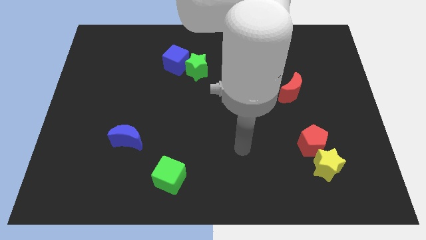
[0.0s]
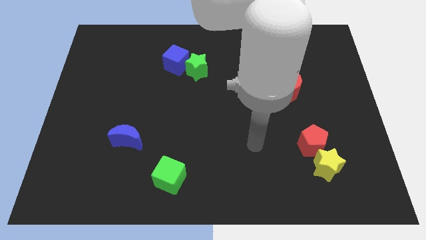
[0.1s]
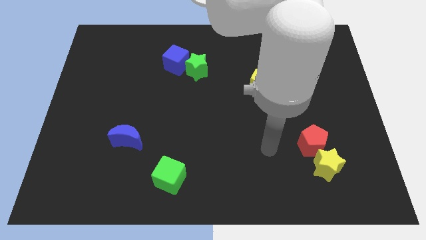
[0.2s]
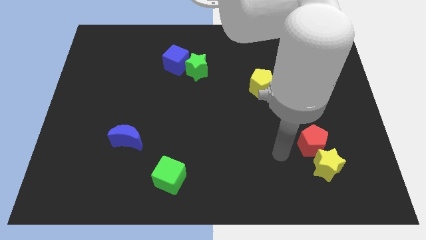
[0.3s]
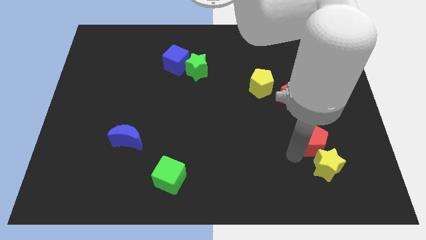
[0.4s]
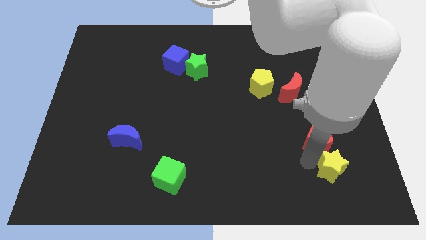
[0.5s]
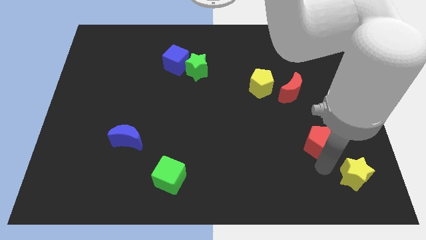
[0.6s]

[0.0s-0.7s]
separate the red pentagon from the yellow star

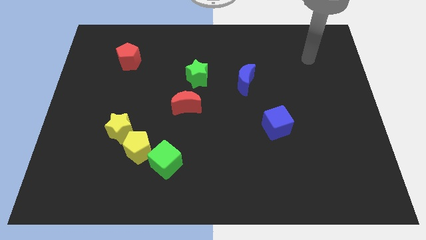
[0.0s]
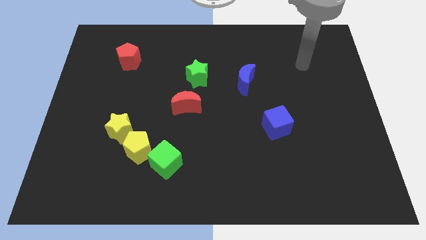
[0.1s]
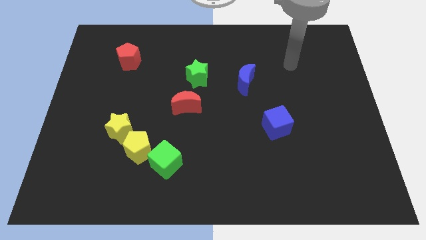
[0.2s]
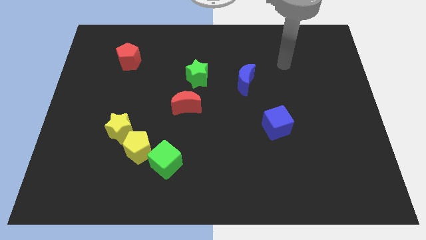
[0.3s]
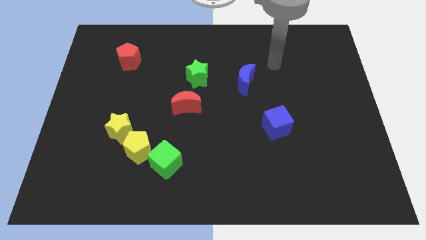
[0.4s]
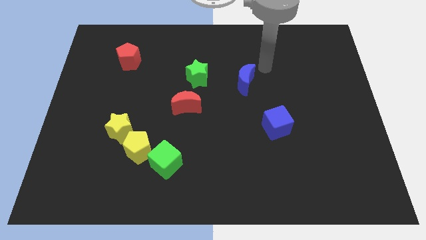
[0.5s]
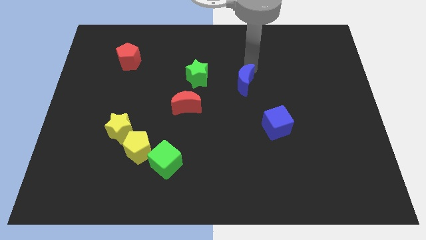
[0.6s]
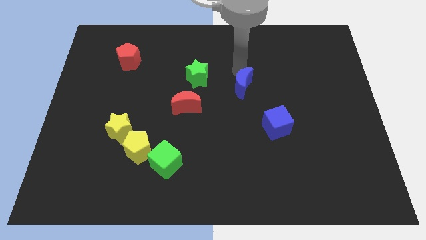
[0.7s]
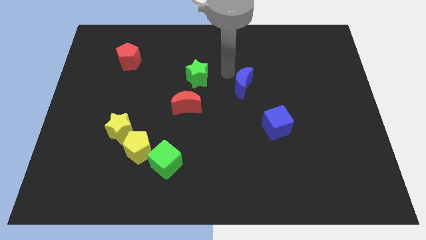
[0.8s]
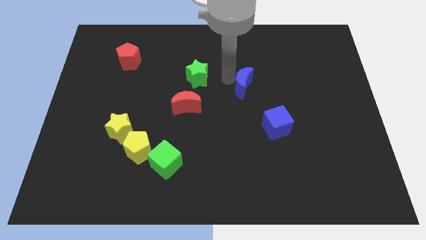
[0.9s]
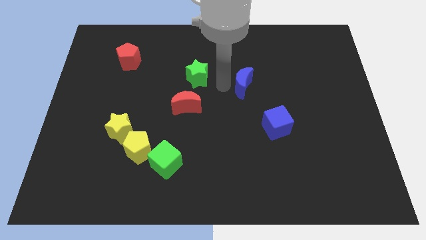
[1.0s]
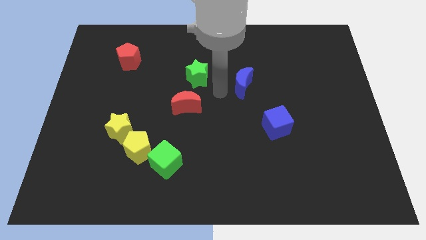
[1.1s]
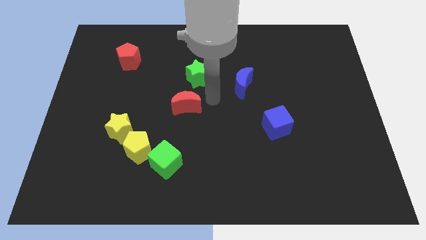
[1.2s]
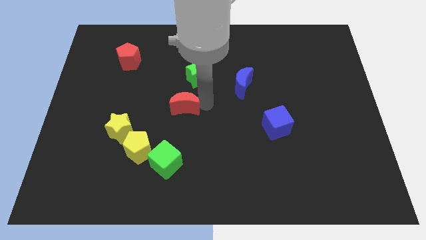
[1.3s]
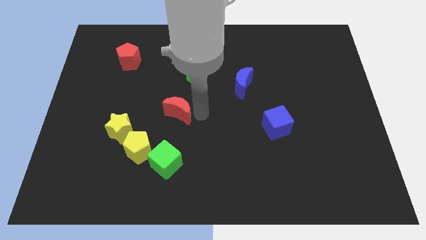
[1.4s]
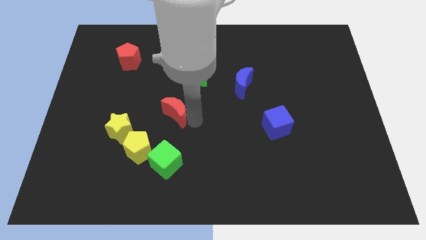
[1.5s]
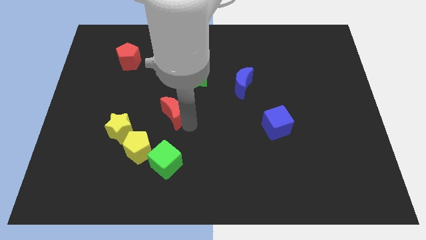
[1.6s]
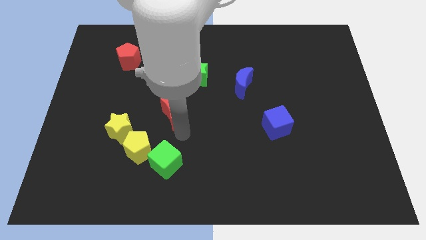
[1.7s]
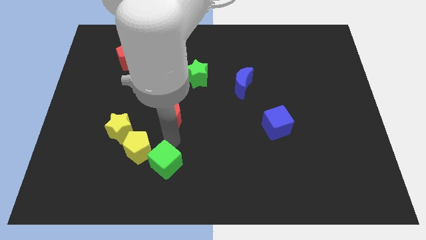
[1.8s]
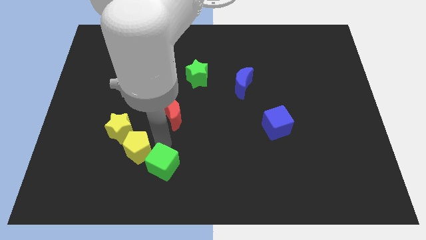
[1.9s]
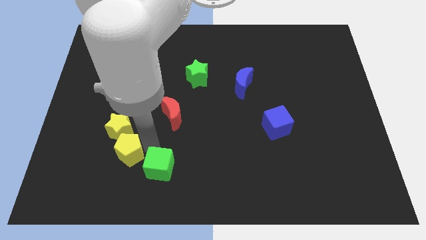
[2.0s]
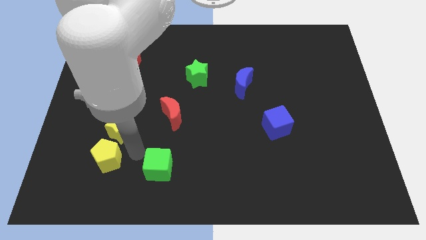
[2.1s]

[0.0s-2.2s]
separate the green cube from the yellow pentagon

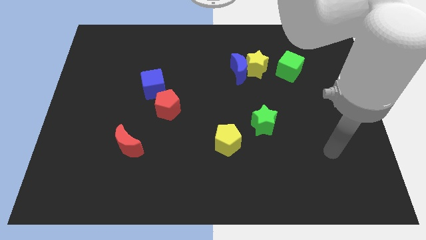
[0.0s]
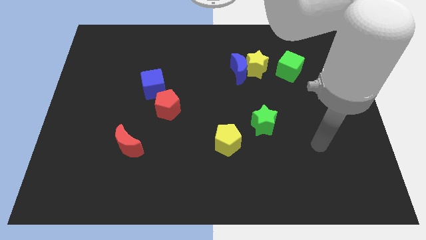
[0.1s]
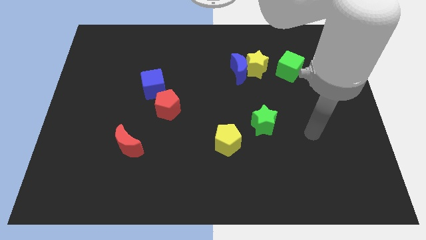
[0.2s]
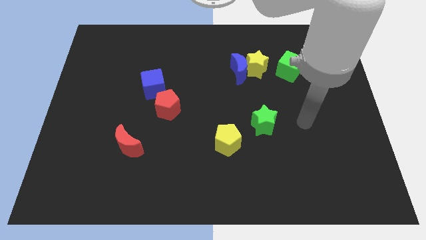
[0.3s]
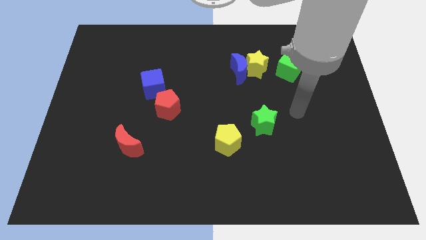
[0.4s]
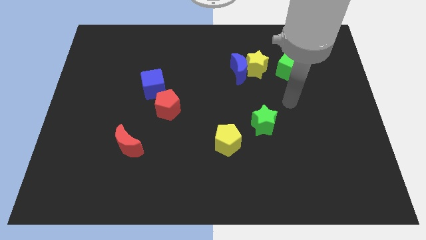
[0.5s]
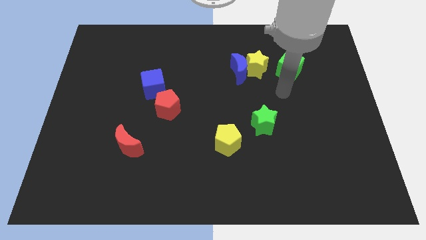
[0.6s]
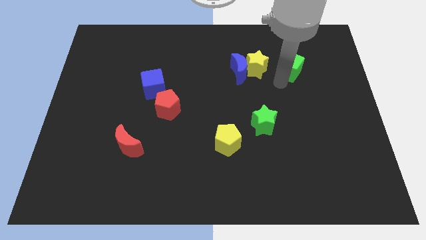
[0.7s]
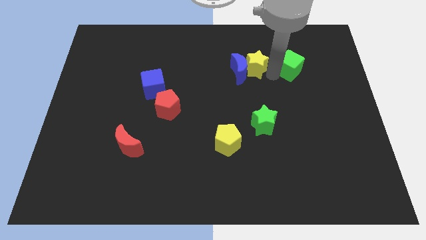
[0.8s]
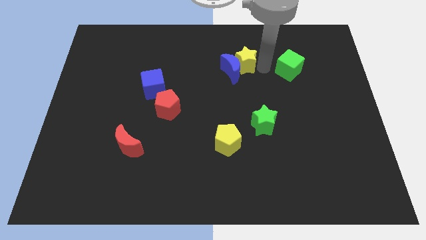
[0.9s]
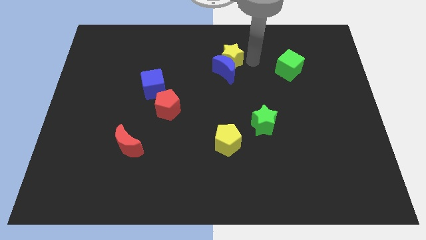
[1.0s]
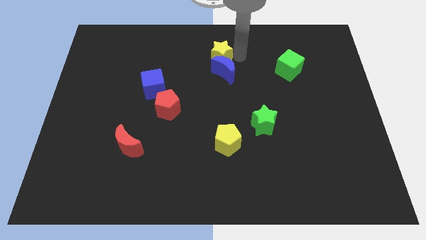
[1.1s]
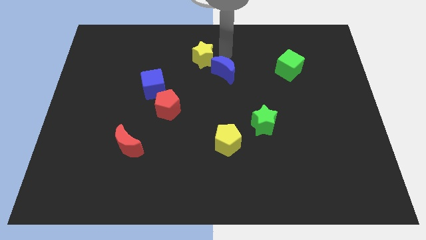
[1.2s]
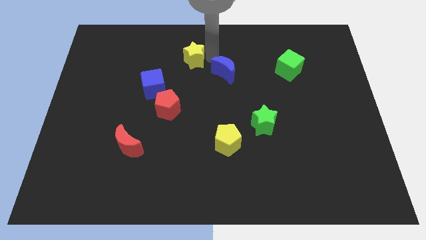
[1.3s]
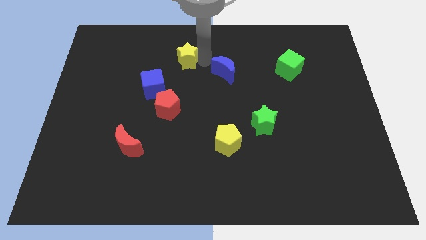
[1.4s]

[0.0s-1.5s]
move the blue moon away from the yellow star

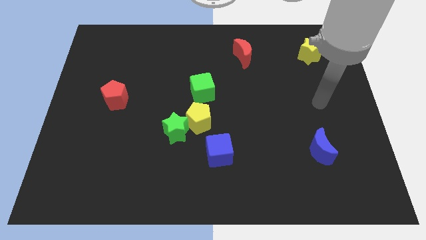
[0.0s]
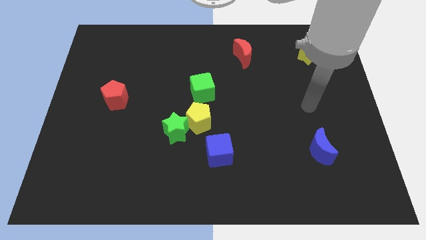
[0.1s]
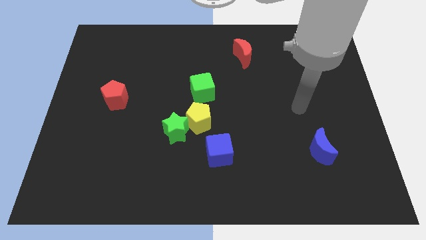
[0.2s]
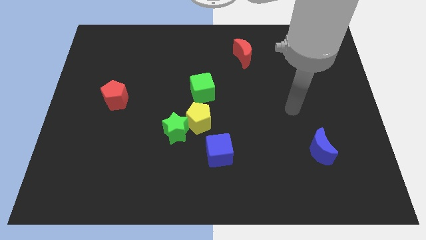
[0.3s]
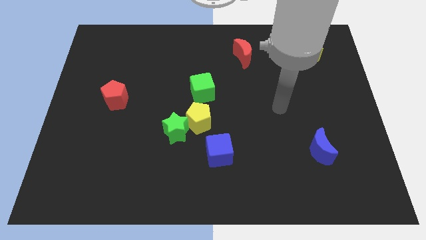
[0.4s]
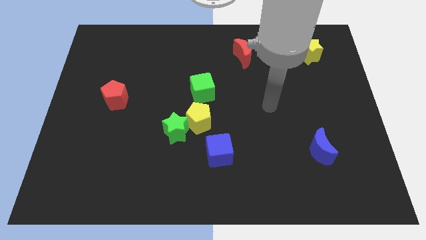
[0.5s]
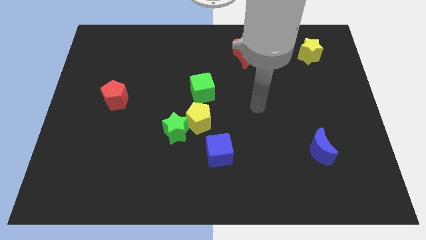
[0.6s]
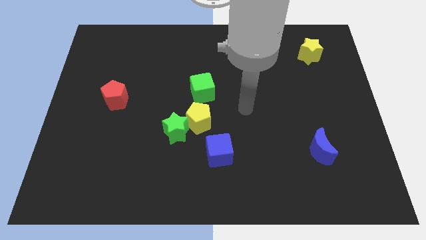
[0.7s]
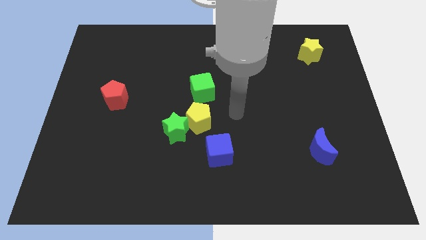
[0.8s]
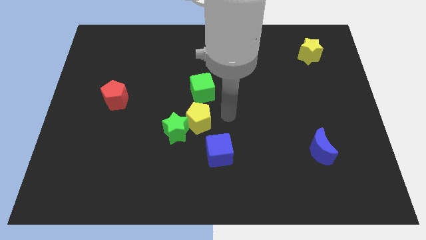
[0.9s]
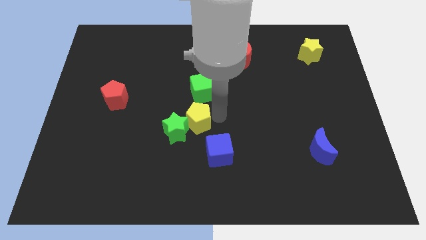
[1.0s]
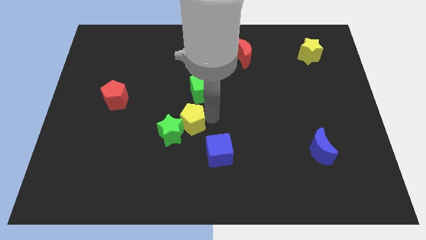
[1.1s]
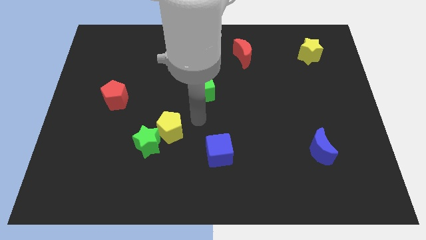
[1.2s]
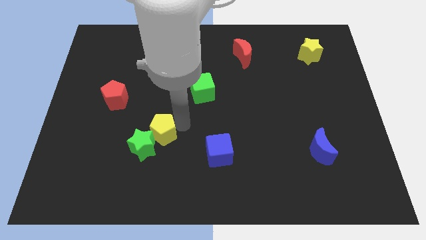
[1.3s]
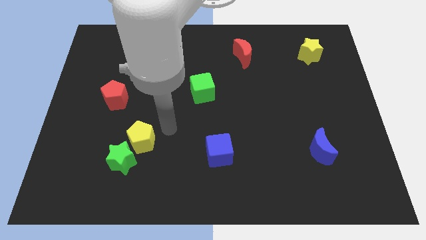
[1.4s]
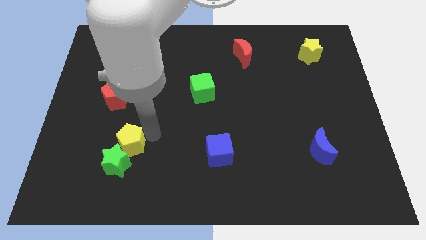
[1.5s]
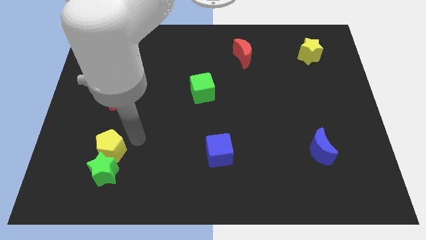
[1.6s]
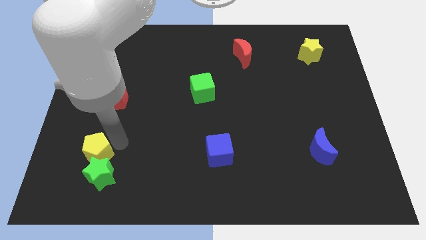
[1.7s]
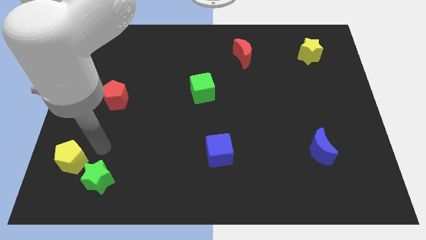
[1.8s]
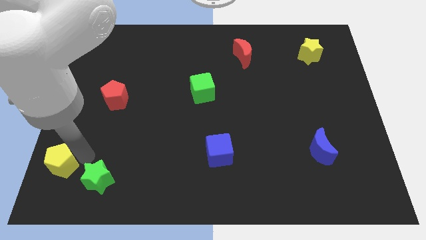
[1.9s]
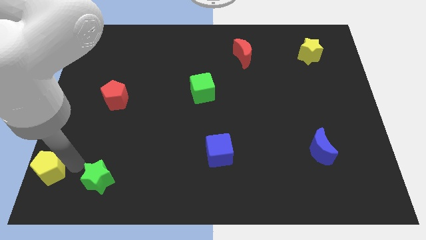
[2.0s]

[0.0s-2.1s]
separate the green star from the yellow pentagon

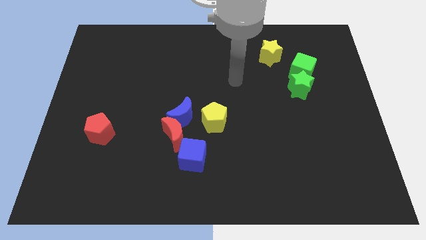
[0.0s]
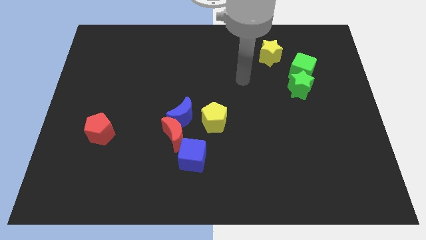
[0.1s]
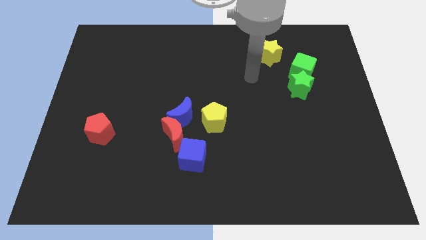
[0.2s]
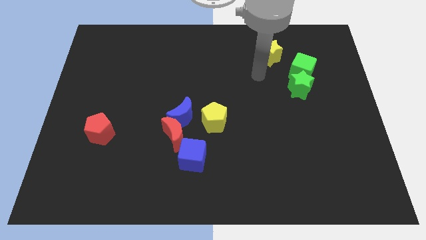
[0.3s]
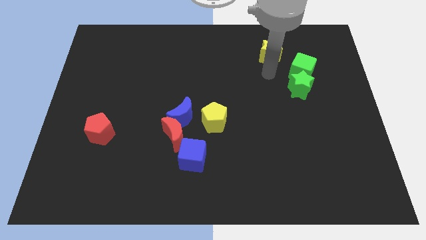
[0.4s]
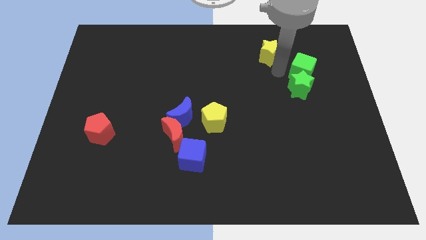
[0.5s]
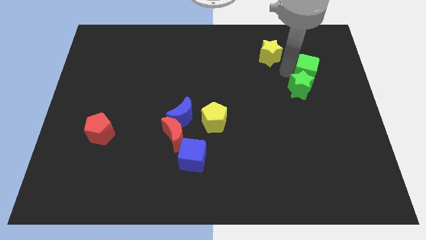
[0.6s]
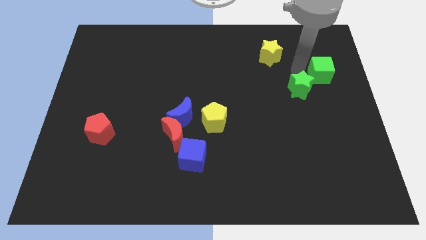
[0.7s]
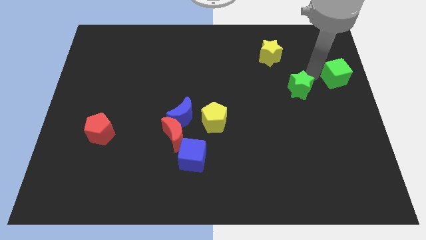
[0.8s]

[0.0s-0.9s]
pull the green star apart from the green cube

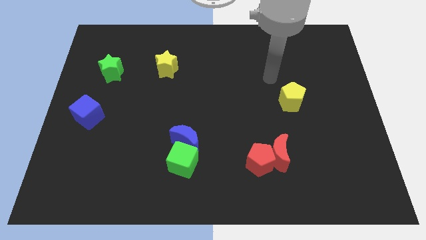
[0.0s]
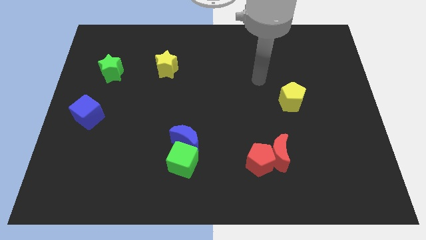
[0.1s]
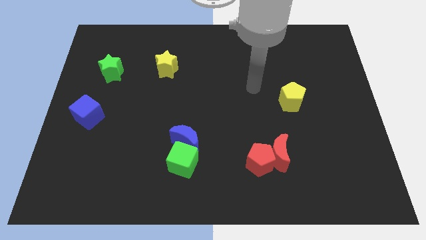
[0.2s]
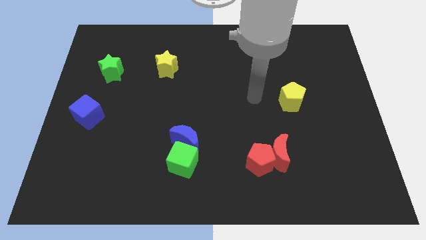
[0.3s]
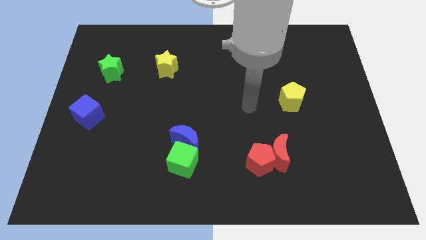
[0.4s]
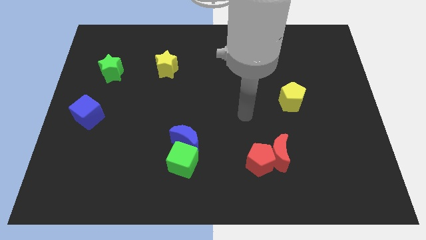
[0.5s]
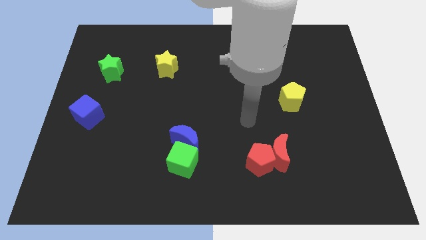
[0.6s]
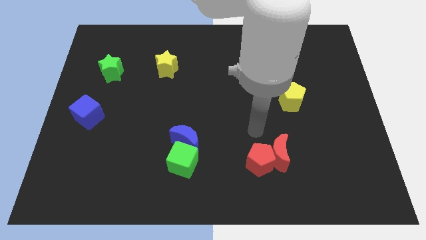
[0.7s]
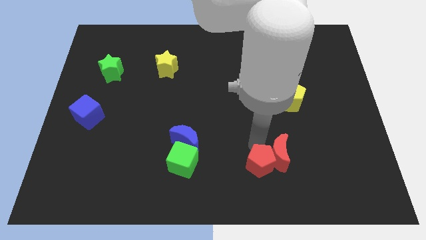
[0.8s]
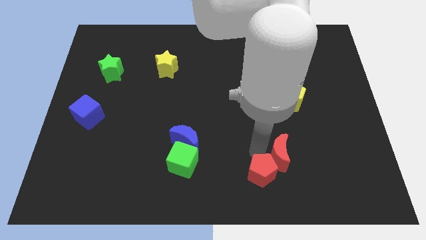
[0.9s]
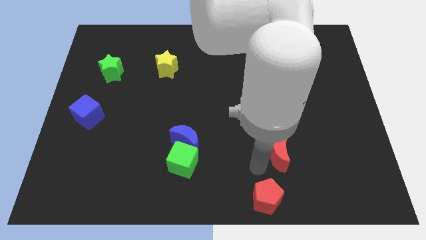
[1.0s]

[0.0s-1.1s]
separate the red moon from the red pentagon

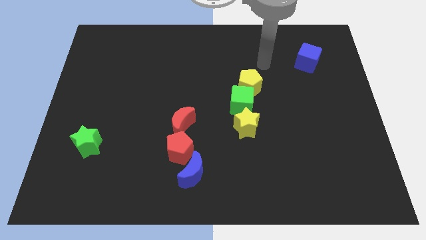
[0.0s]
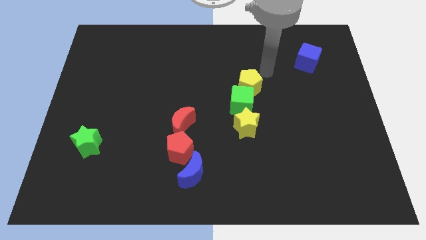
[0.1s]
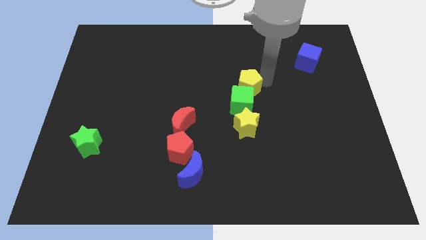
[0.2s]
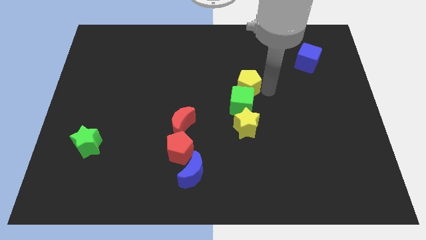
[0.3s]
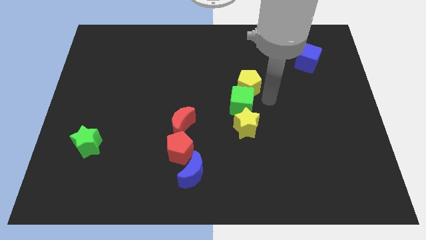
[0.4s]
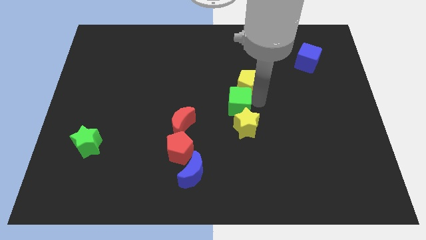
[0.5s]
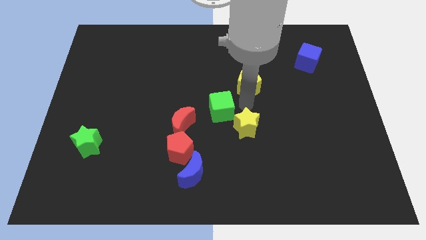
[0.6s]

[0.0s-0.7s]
pull the yellow pentagon apart from the green cube

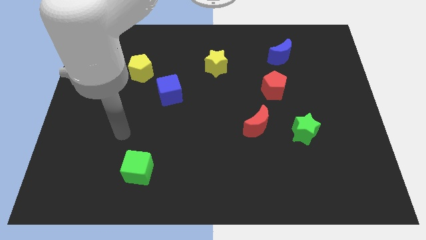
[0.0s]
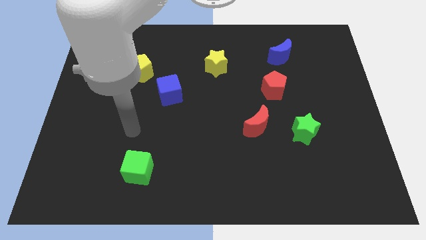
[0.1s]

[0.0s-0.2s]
separate the red moon from the green star

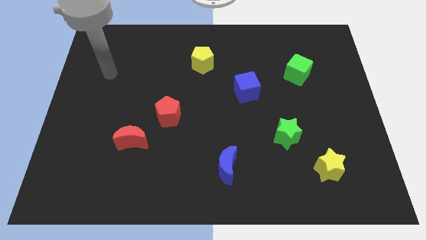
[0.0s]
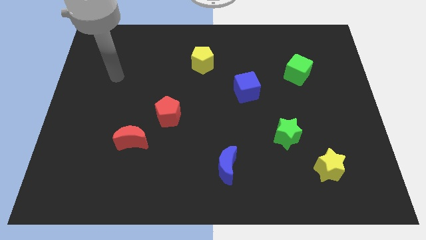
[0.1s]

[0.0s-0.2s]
move the red moon away from the red pentagon
